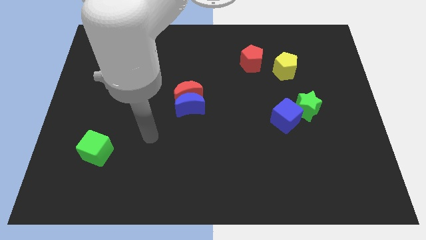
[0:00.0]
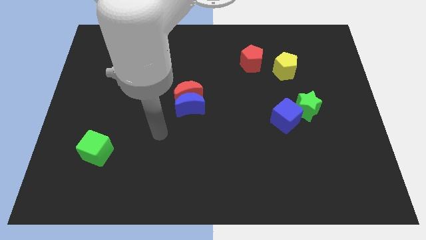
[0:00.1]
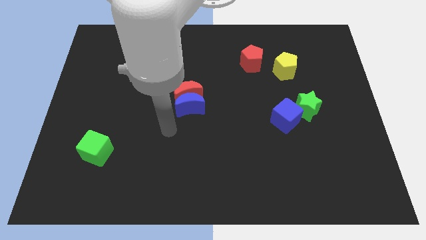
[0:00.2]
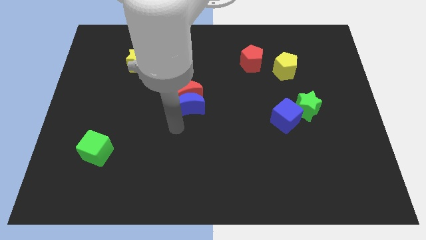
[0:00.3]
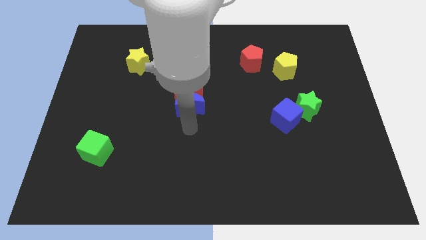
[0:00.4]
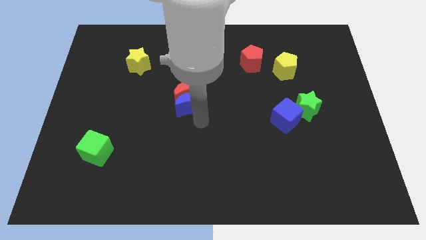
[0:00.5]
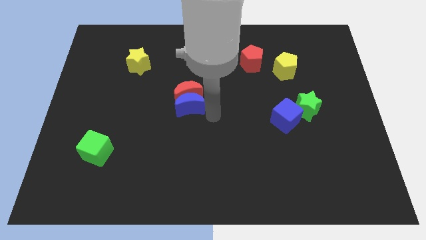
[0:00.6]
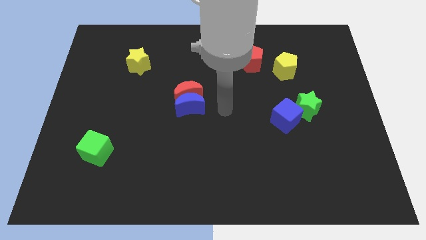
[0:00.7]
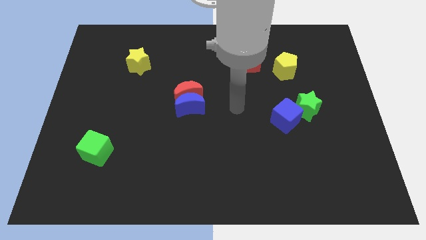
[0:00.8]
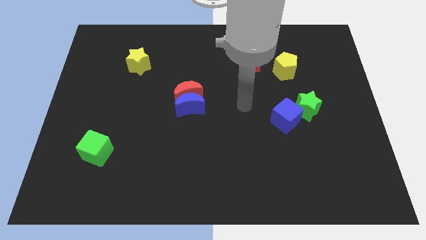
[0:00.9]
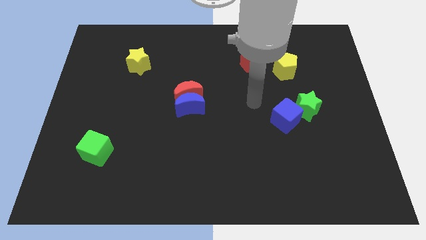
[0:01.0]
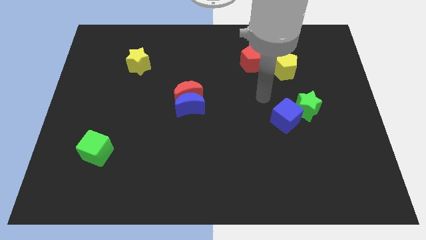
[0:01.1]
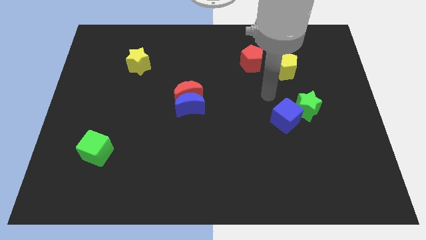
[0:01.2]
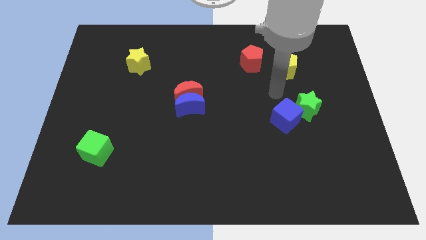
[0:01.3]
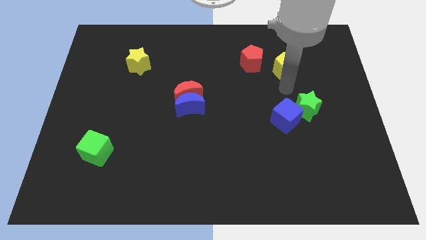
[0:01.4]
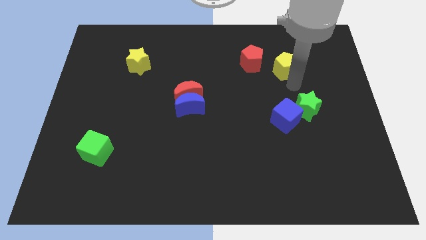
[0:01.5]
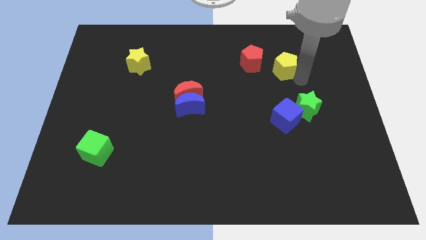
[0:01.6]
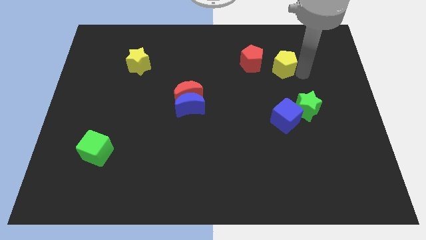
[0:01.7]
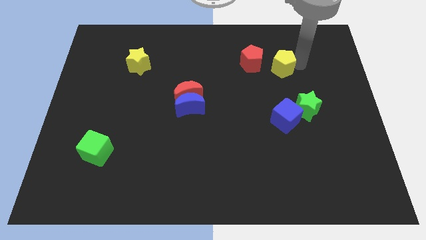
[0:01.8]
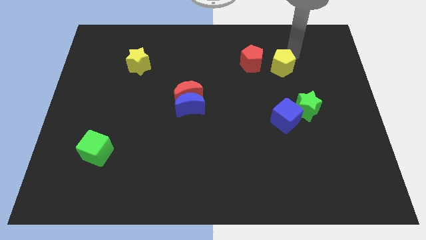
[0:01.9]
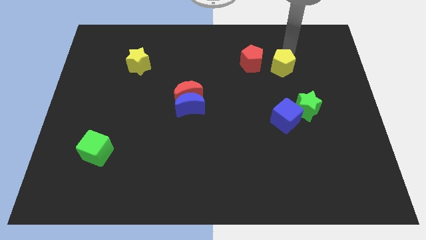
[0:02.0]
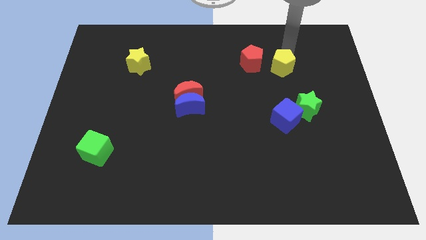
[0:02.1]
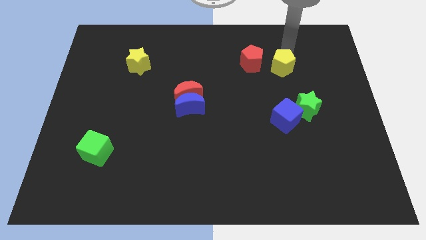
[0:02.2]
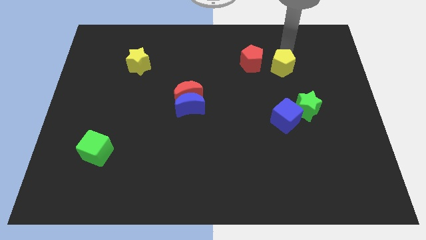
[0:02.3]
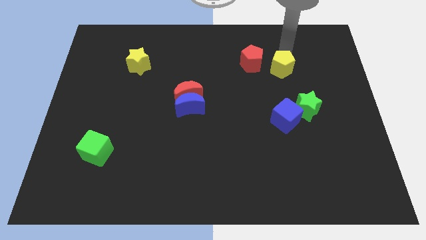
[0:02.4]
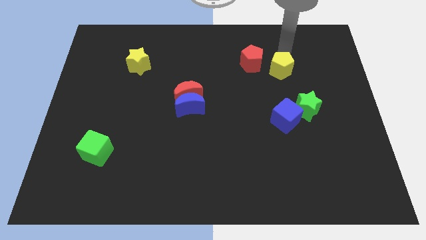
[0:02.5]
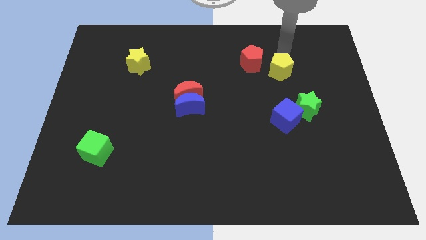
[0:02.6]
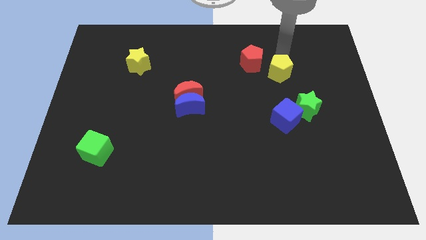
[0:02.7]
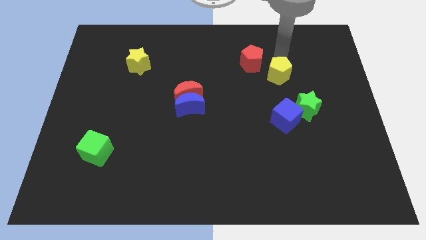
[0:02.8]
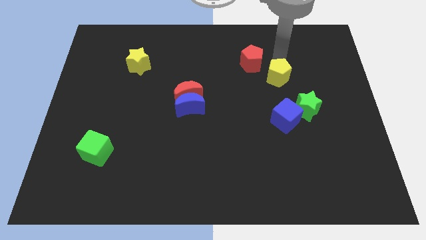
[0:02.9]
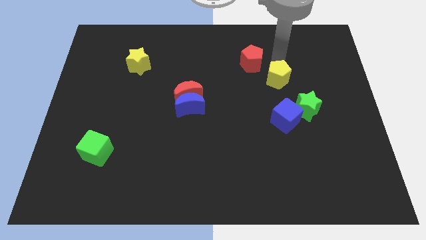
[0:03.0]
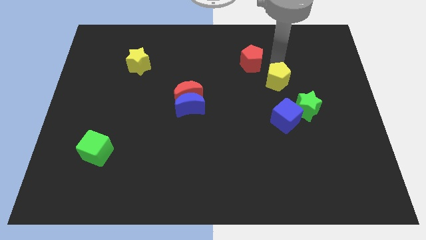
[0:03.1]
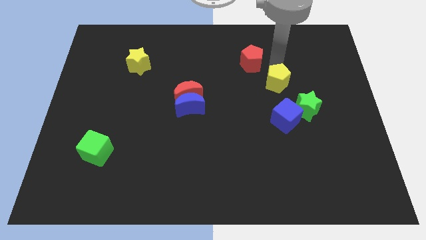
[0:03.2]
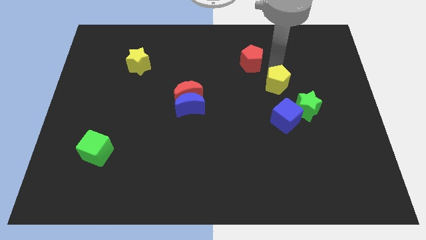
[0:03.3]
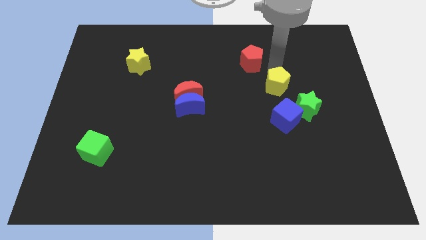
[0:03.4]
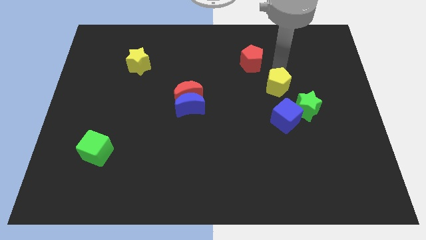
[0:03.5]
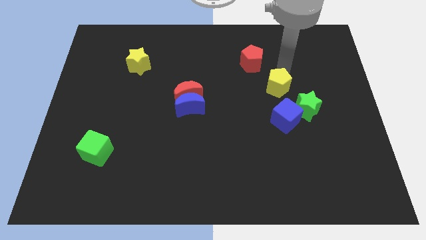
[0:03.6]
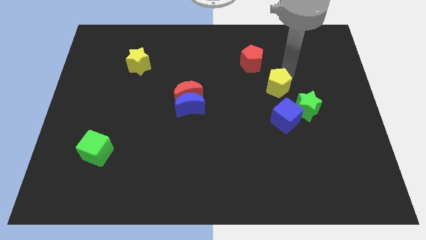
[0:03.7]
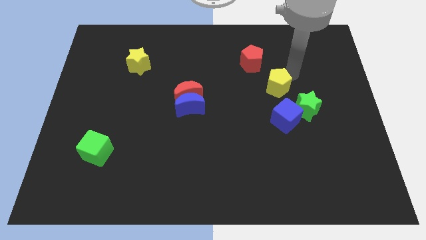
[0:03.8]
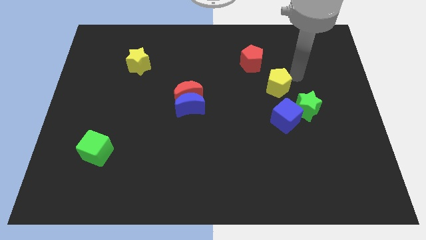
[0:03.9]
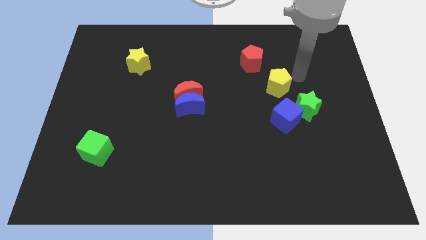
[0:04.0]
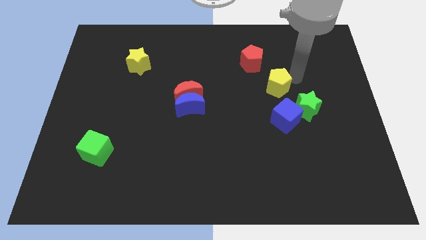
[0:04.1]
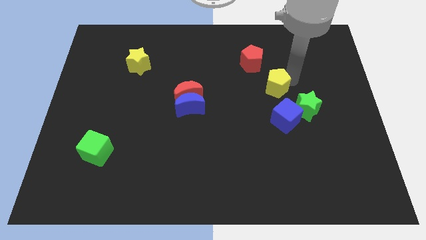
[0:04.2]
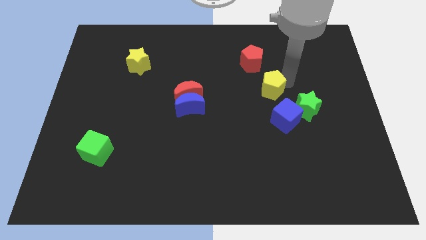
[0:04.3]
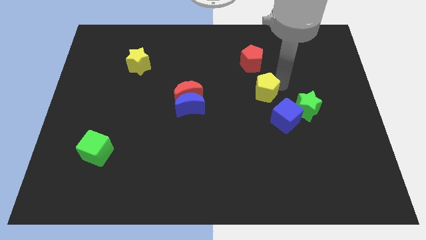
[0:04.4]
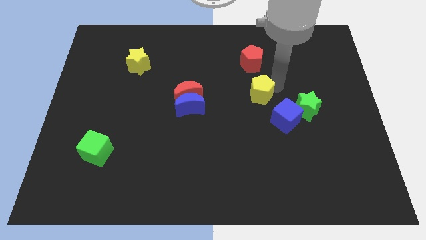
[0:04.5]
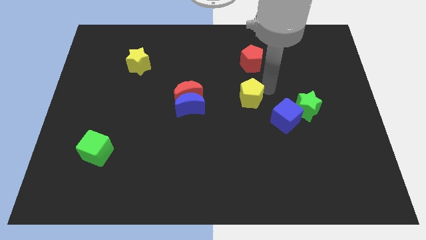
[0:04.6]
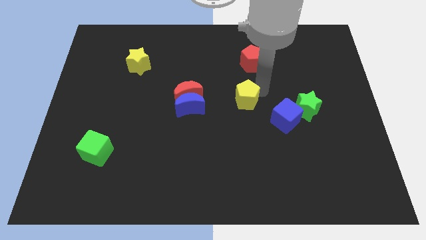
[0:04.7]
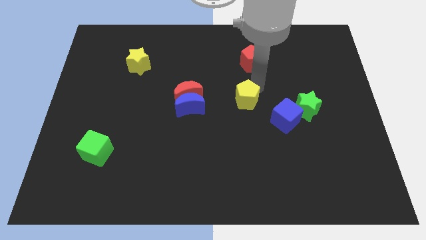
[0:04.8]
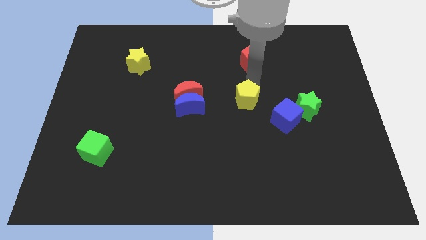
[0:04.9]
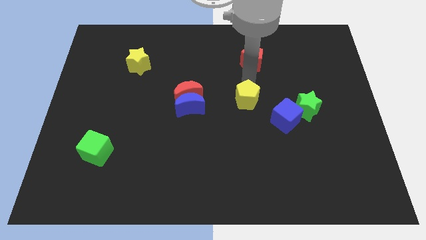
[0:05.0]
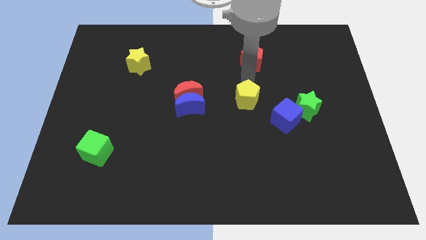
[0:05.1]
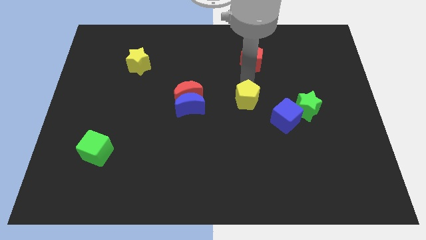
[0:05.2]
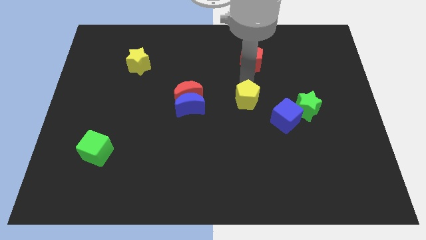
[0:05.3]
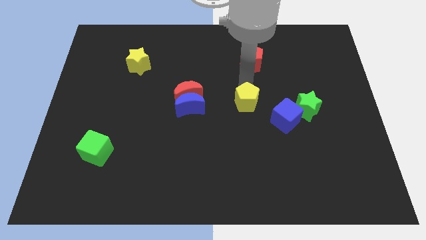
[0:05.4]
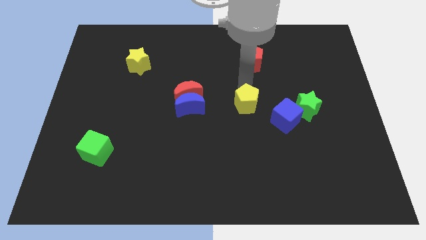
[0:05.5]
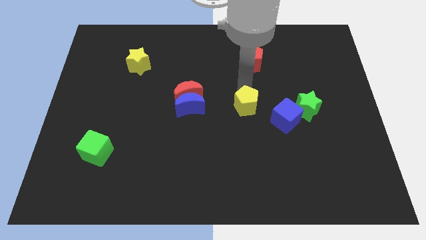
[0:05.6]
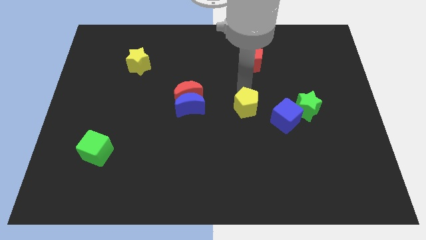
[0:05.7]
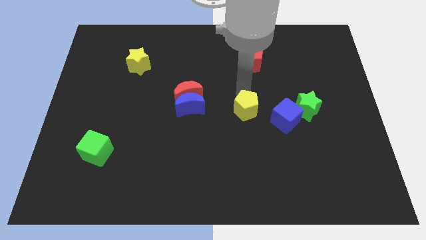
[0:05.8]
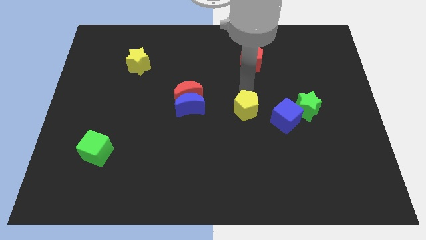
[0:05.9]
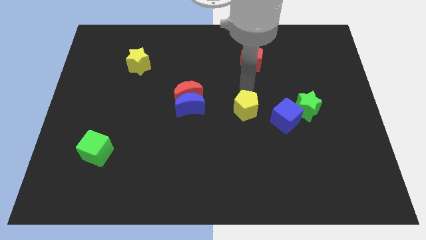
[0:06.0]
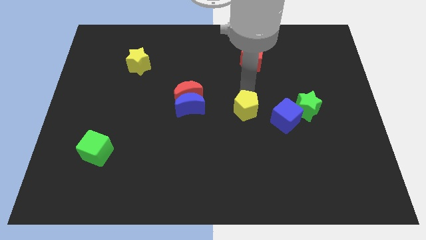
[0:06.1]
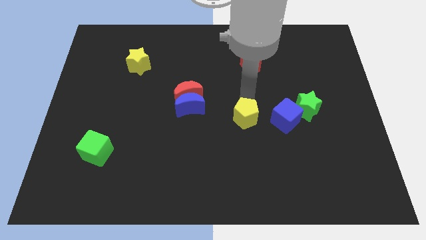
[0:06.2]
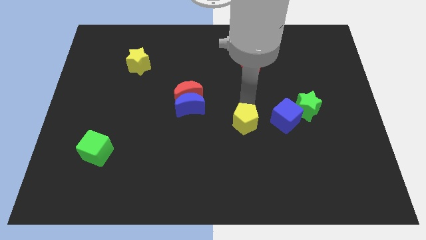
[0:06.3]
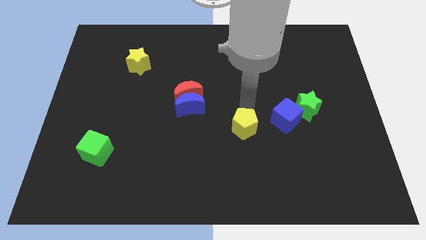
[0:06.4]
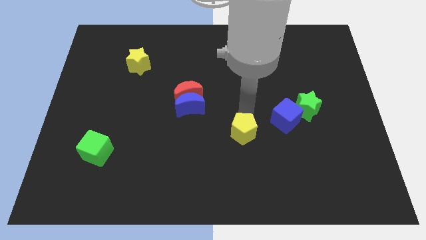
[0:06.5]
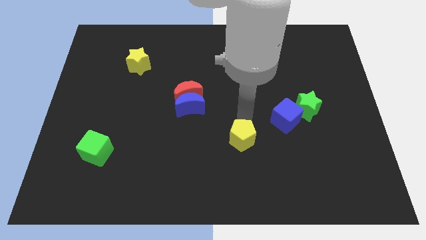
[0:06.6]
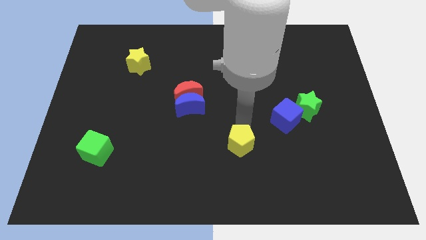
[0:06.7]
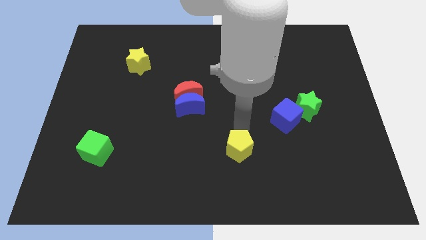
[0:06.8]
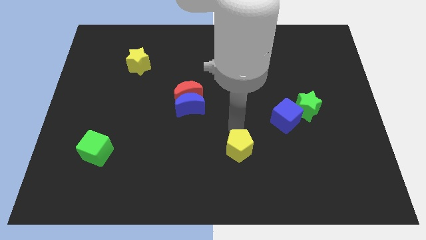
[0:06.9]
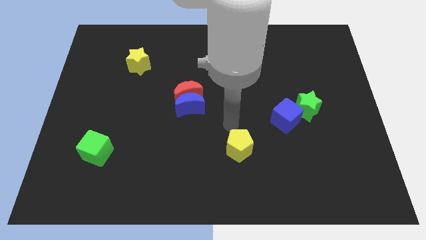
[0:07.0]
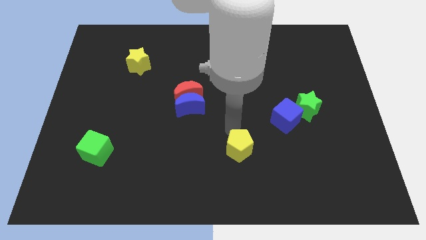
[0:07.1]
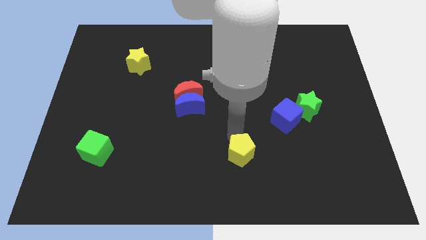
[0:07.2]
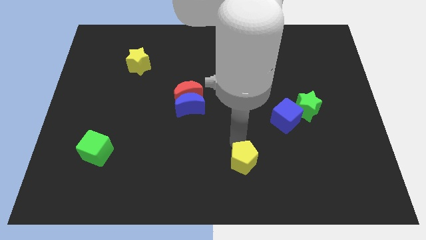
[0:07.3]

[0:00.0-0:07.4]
slide the yellow pentagon to the bottom
